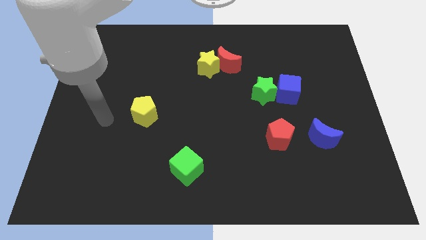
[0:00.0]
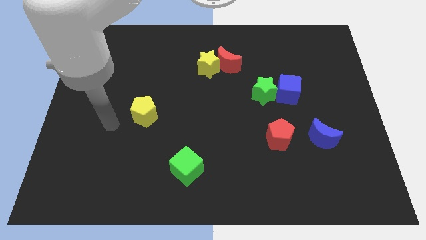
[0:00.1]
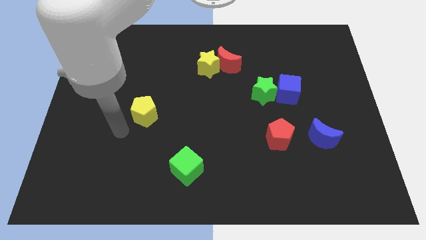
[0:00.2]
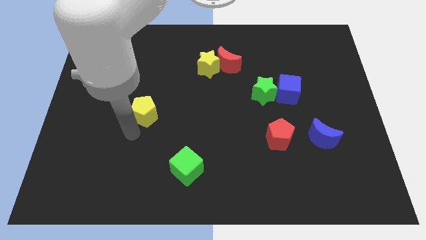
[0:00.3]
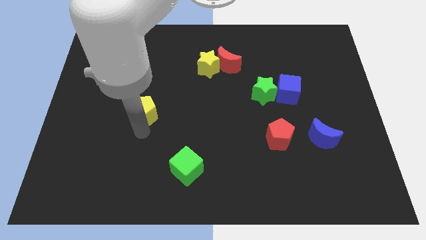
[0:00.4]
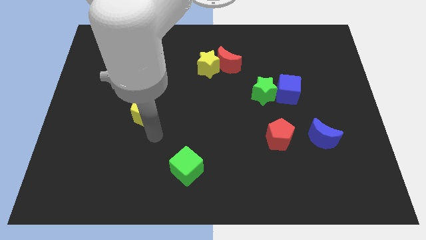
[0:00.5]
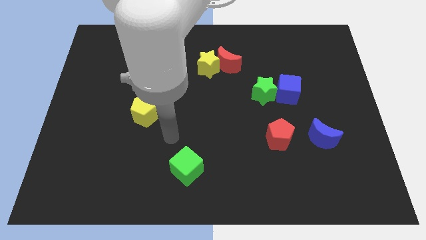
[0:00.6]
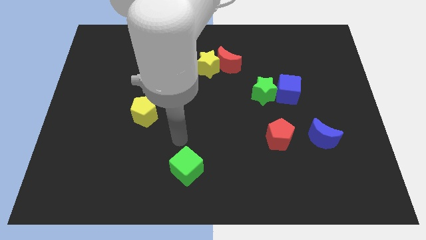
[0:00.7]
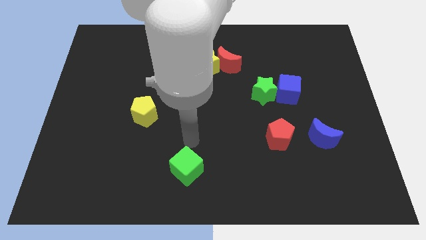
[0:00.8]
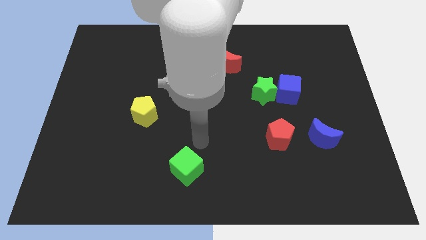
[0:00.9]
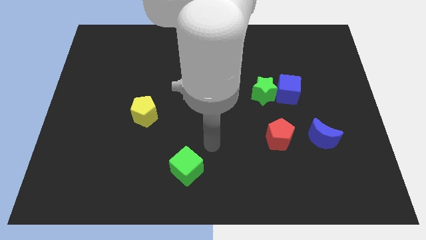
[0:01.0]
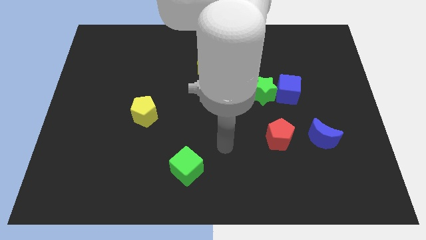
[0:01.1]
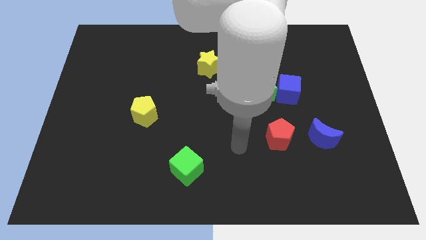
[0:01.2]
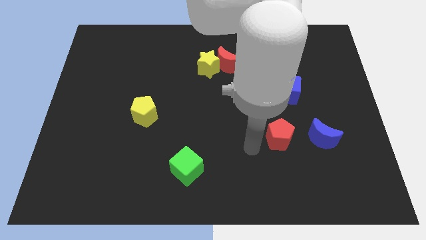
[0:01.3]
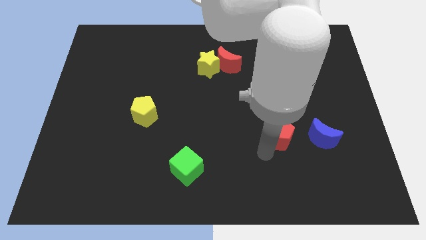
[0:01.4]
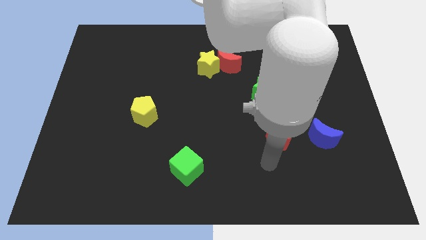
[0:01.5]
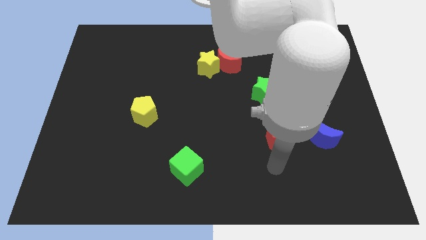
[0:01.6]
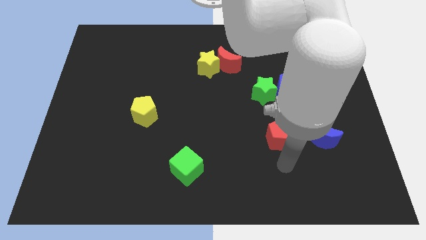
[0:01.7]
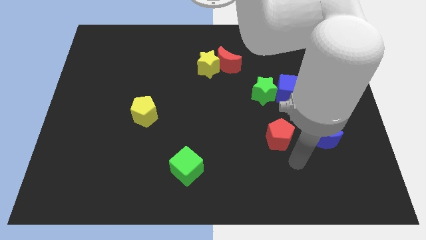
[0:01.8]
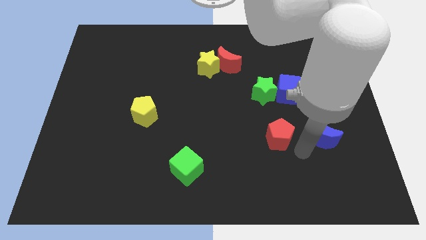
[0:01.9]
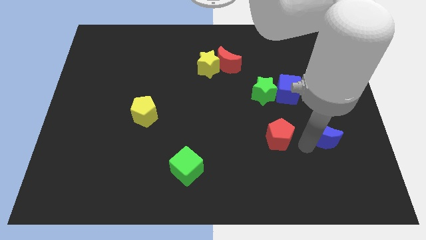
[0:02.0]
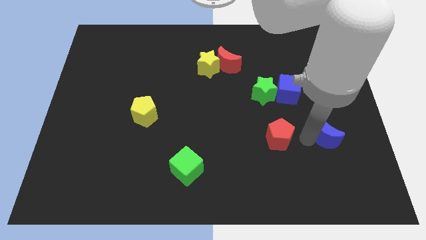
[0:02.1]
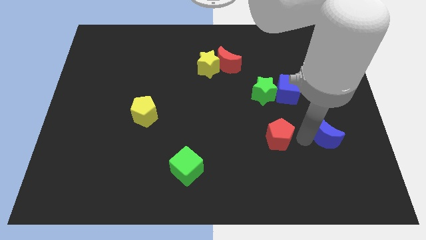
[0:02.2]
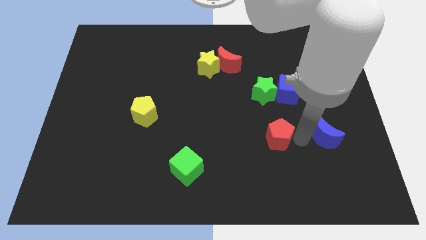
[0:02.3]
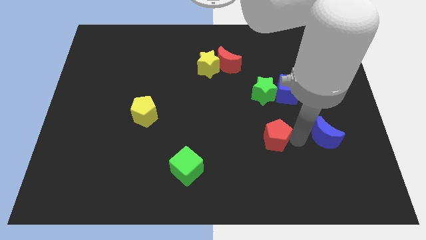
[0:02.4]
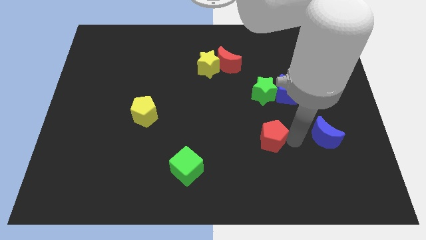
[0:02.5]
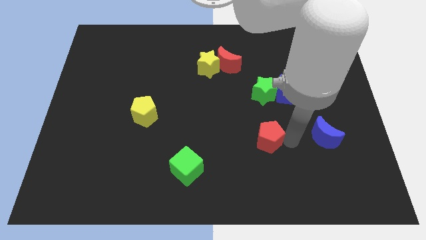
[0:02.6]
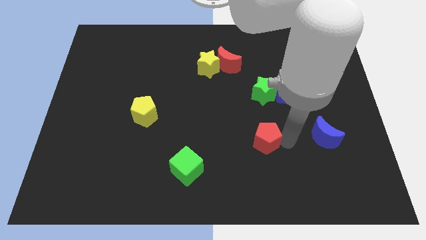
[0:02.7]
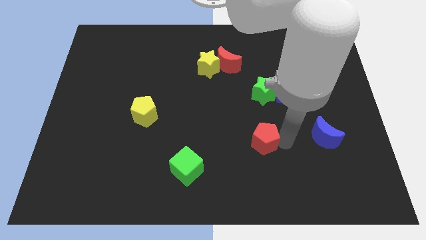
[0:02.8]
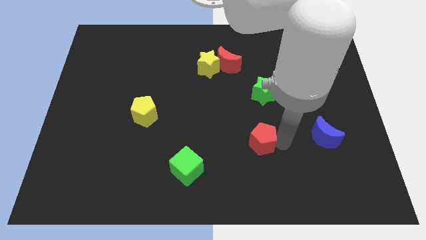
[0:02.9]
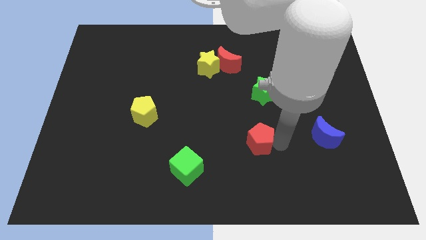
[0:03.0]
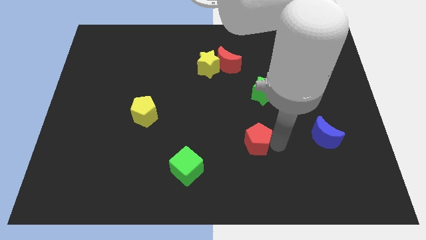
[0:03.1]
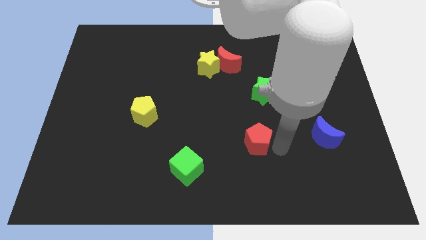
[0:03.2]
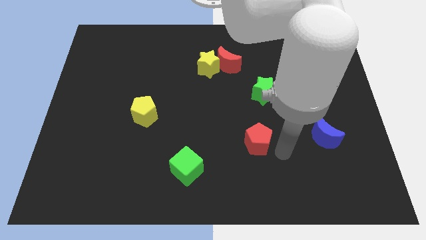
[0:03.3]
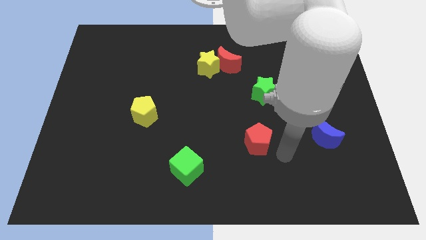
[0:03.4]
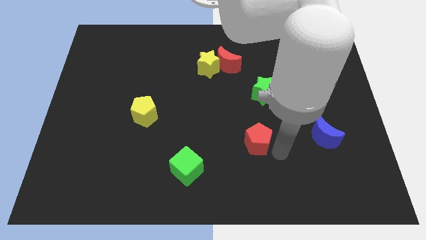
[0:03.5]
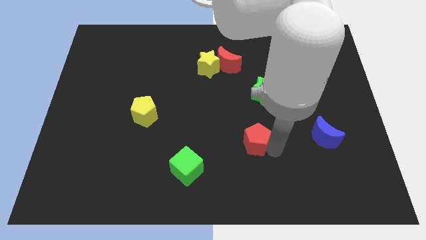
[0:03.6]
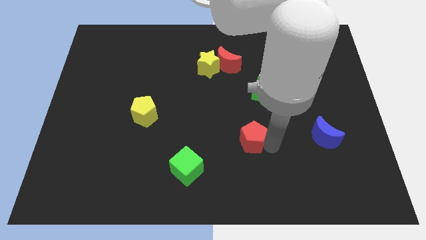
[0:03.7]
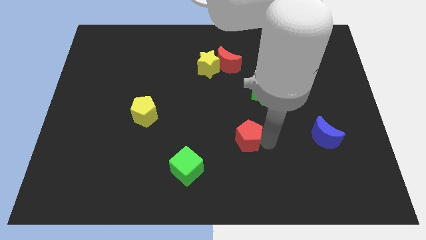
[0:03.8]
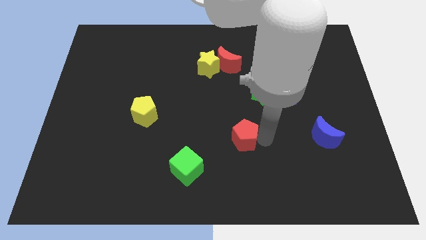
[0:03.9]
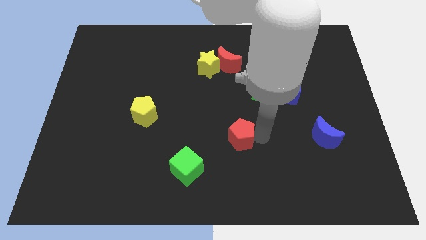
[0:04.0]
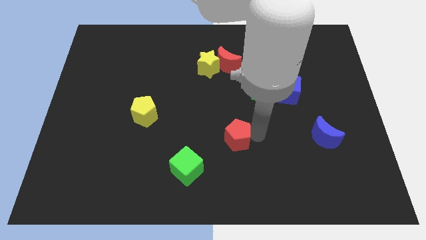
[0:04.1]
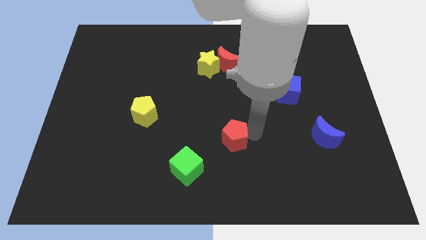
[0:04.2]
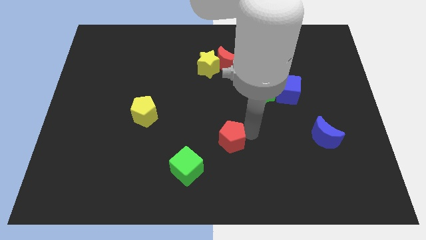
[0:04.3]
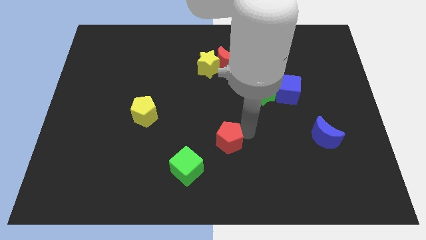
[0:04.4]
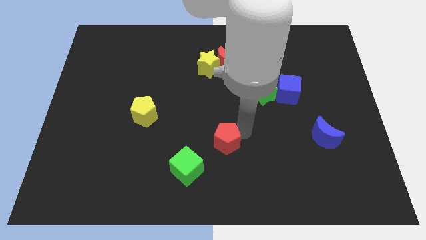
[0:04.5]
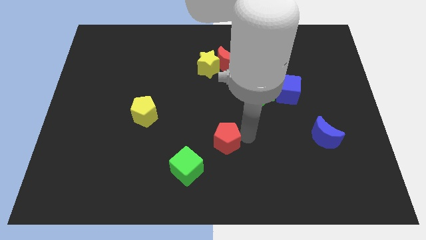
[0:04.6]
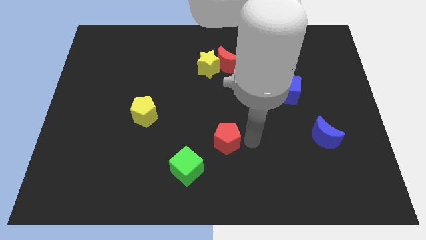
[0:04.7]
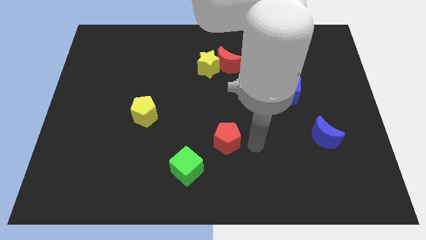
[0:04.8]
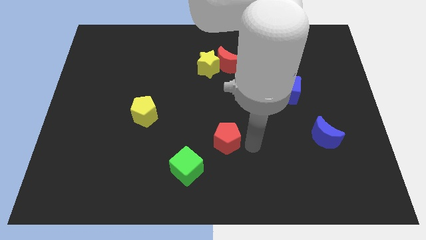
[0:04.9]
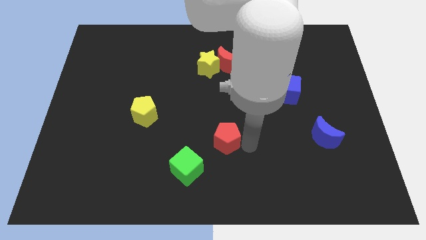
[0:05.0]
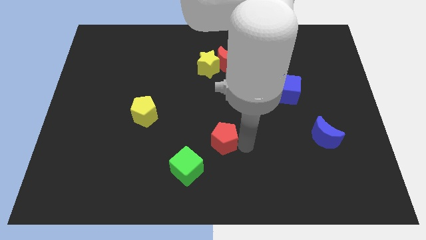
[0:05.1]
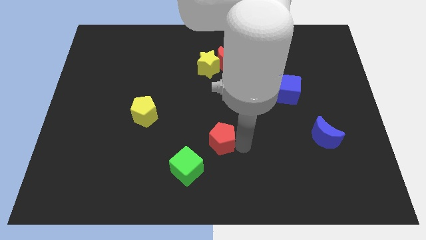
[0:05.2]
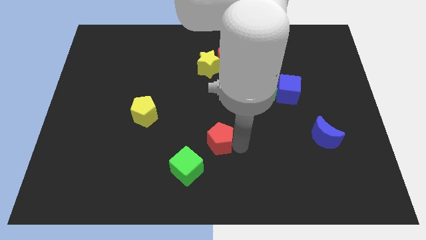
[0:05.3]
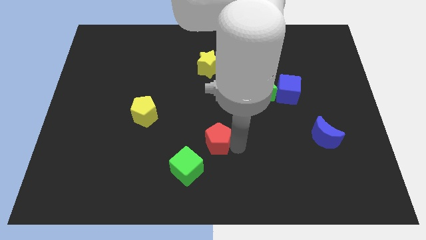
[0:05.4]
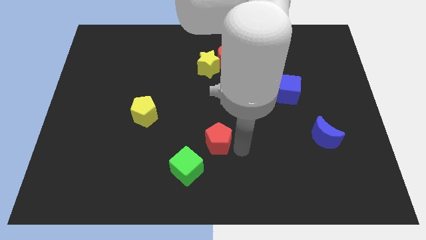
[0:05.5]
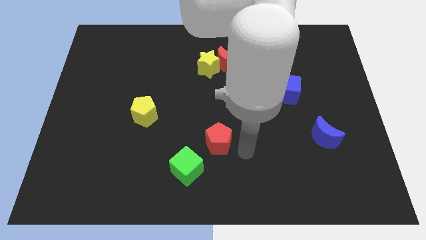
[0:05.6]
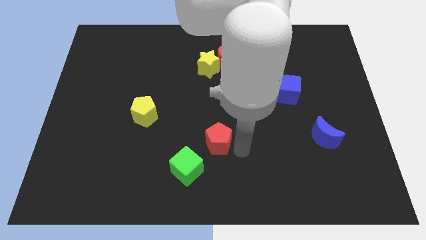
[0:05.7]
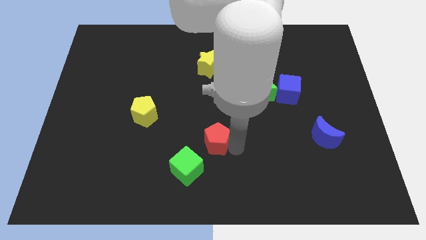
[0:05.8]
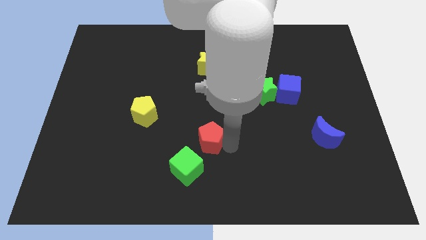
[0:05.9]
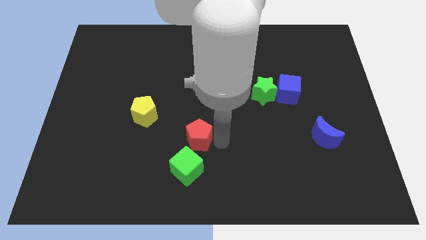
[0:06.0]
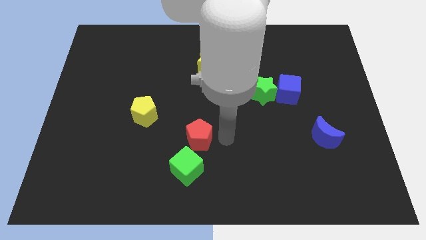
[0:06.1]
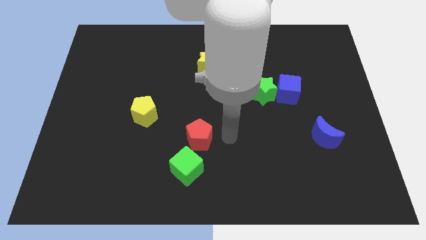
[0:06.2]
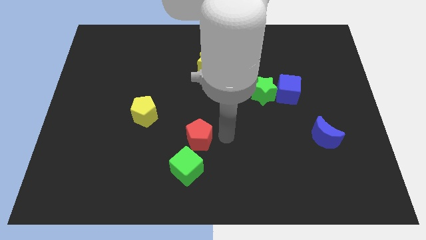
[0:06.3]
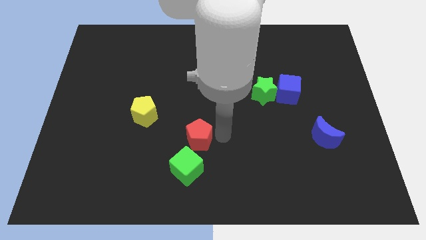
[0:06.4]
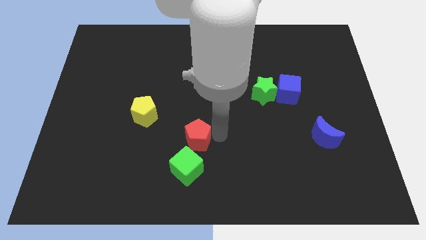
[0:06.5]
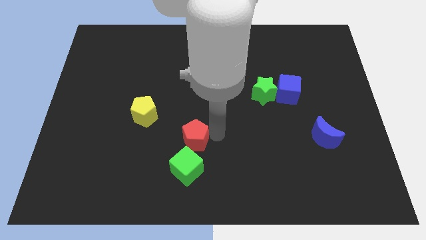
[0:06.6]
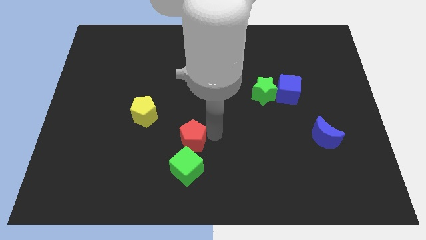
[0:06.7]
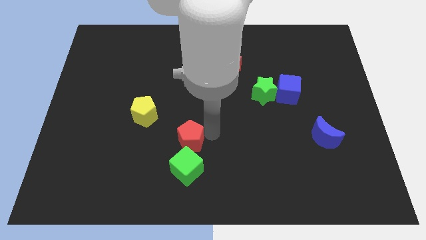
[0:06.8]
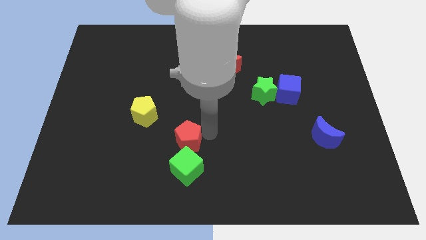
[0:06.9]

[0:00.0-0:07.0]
move the red pentagon left

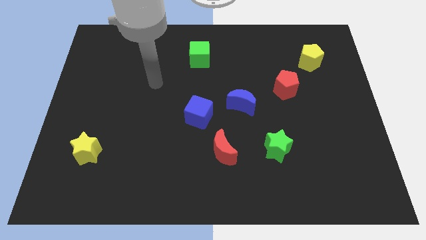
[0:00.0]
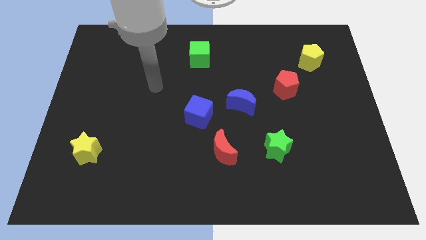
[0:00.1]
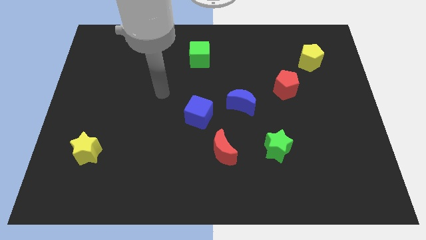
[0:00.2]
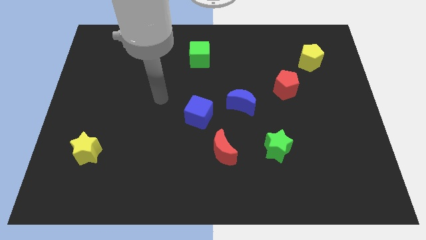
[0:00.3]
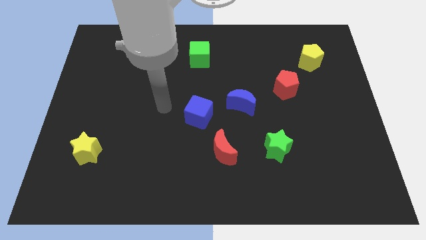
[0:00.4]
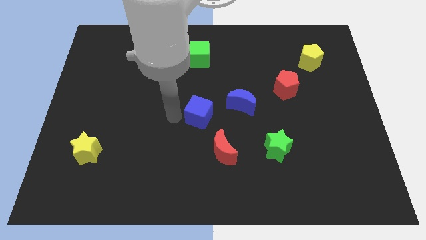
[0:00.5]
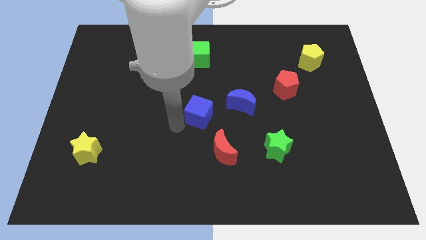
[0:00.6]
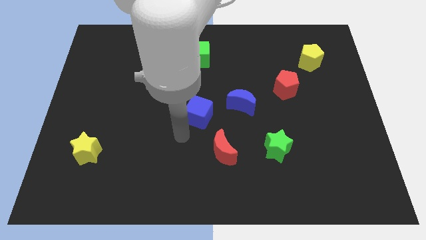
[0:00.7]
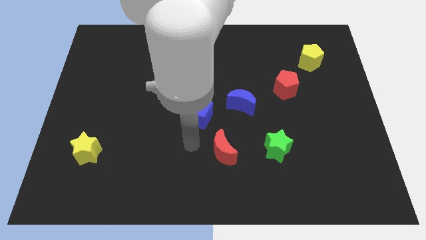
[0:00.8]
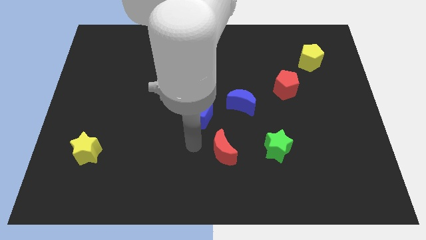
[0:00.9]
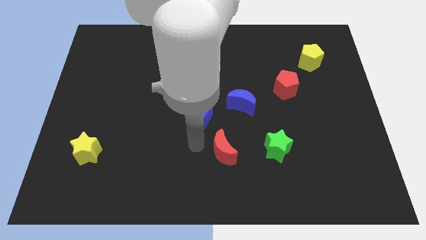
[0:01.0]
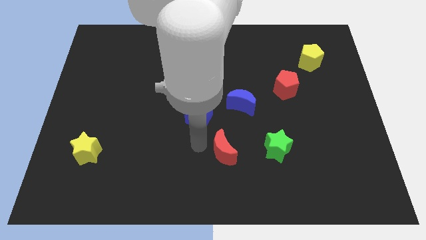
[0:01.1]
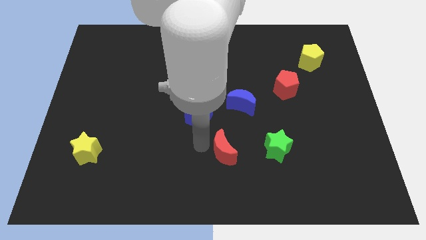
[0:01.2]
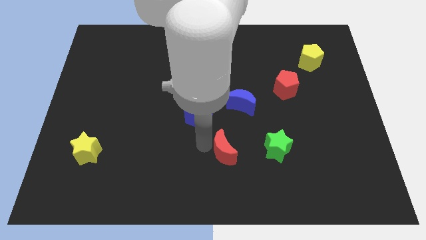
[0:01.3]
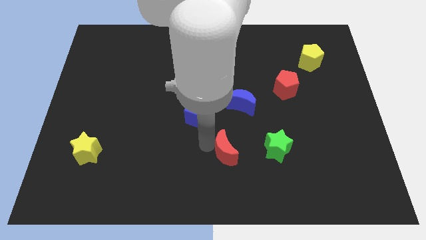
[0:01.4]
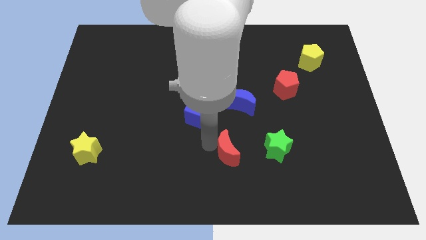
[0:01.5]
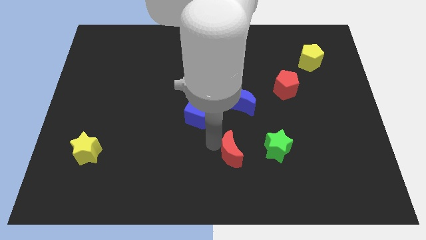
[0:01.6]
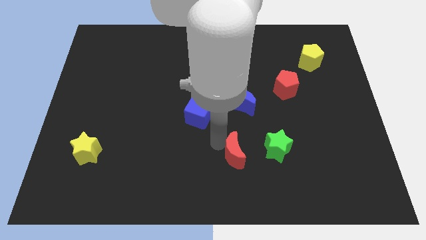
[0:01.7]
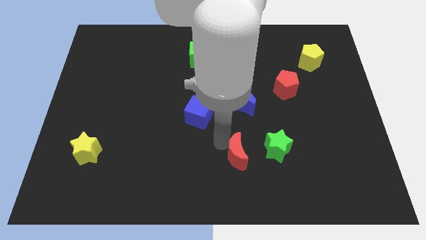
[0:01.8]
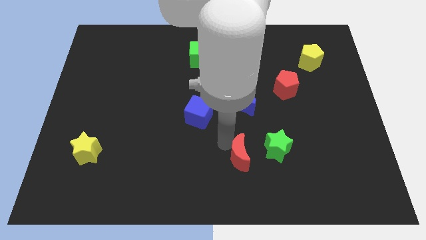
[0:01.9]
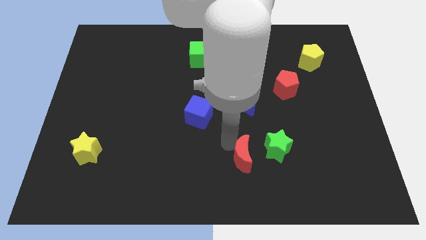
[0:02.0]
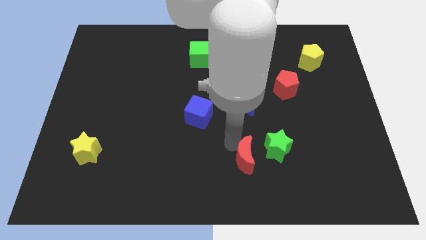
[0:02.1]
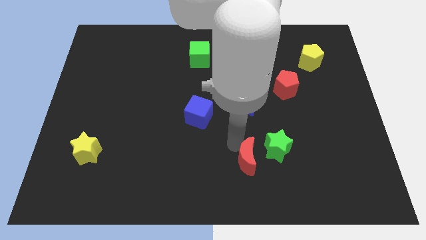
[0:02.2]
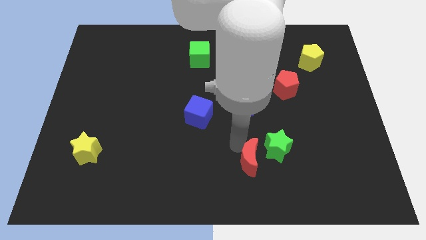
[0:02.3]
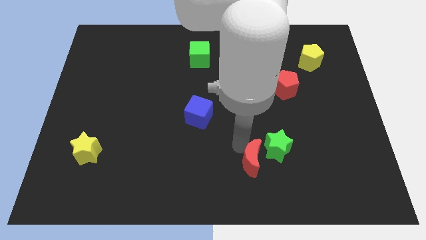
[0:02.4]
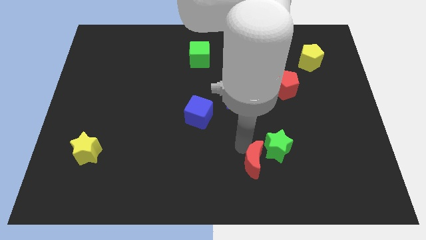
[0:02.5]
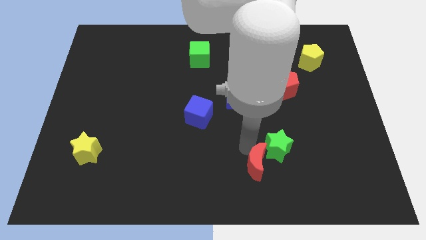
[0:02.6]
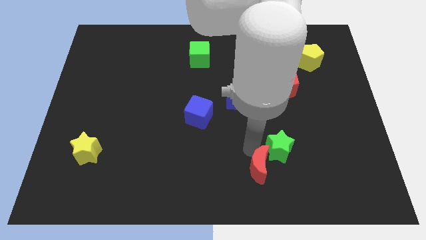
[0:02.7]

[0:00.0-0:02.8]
push the red moon a bit to the right
